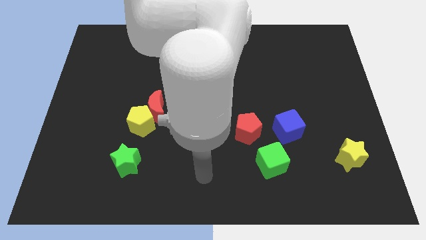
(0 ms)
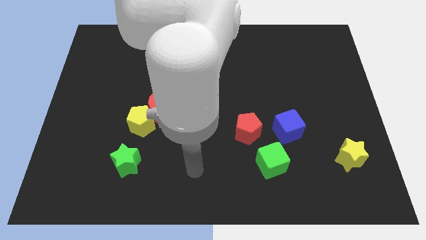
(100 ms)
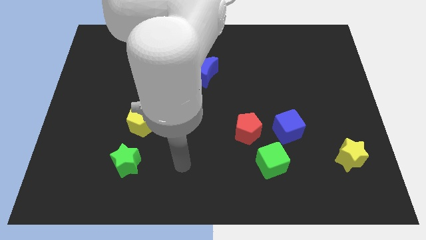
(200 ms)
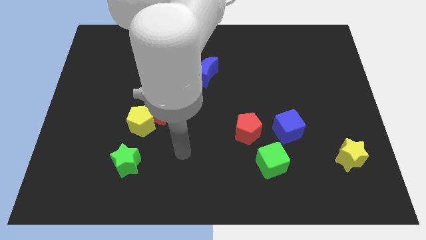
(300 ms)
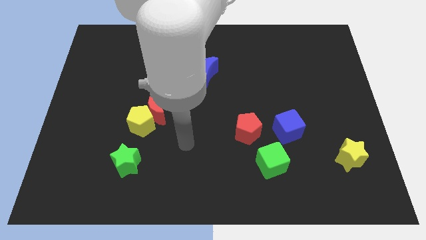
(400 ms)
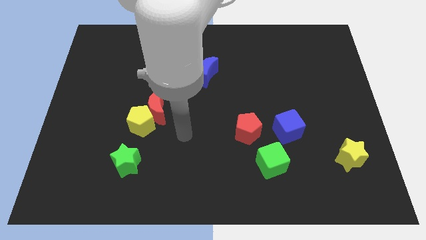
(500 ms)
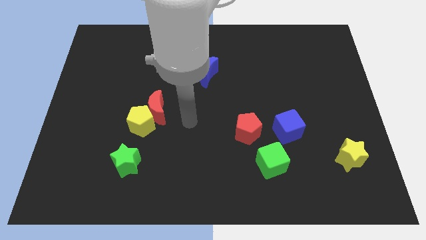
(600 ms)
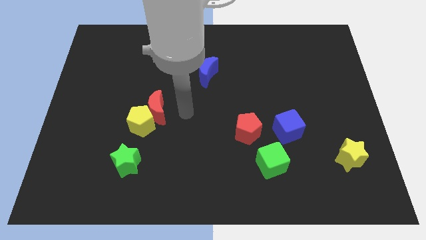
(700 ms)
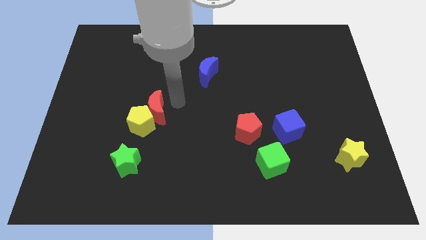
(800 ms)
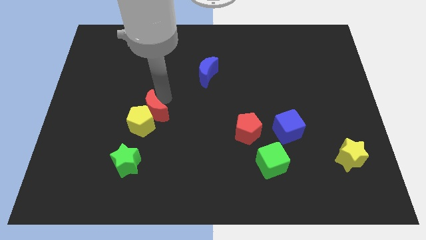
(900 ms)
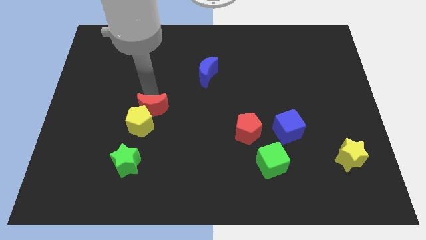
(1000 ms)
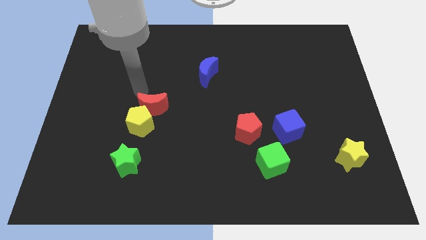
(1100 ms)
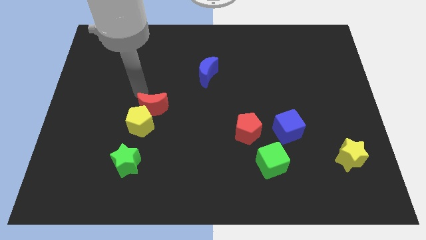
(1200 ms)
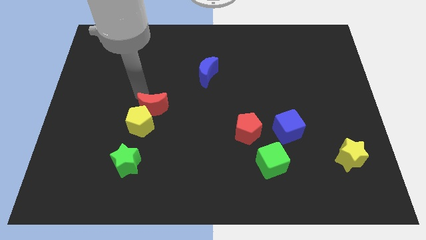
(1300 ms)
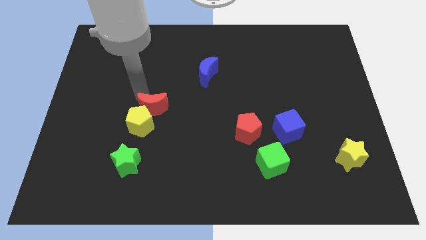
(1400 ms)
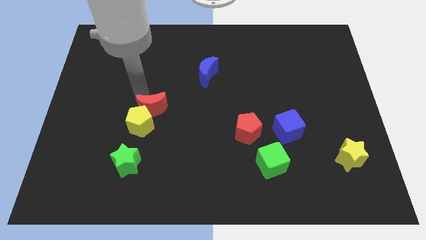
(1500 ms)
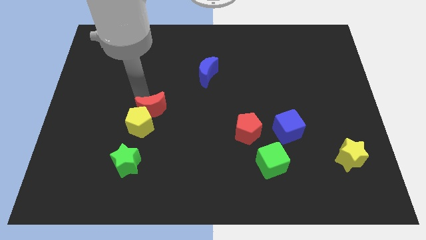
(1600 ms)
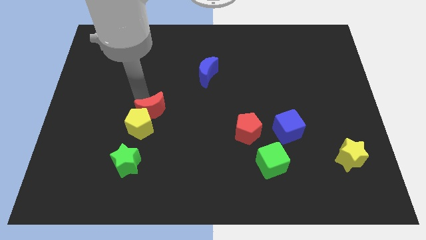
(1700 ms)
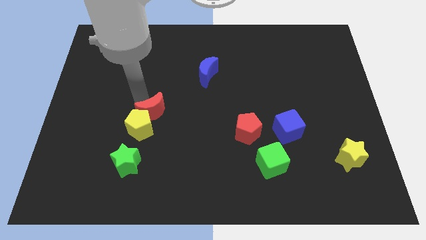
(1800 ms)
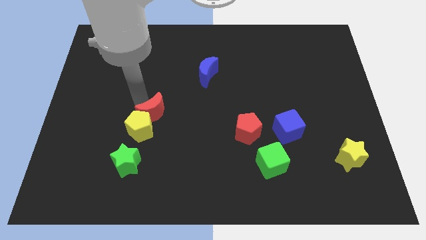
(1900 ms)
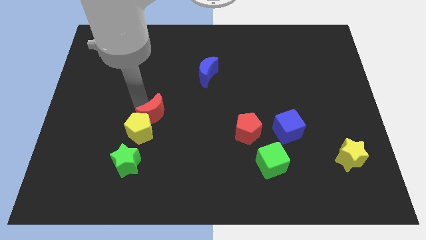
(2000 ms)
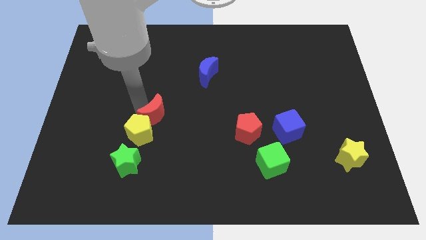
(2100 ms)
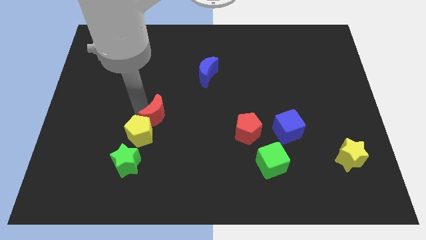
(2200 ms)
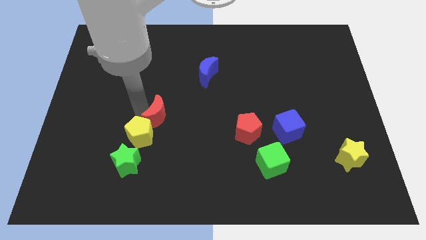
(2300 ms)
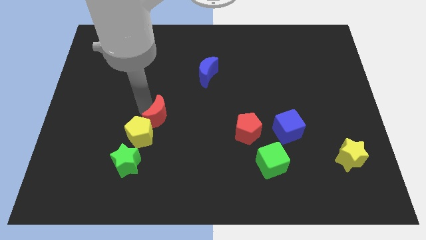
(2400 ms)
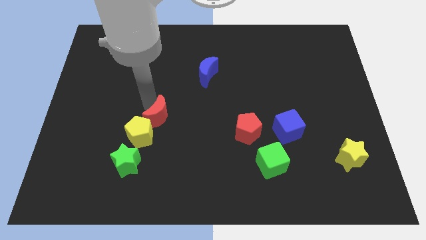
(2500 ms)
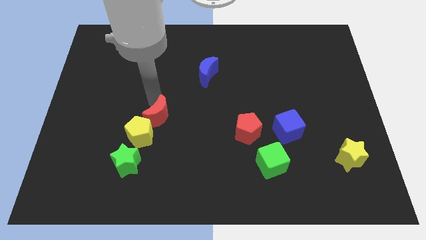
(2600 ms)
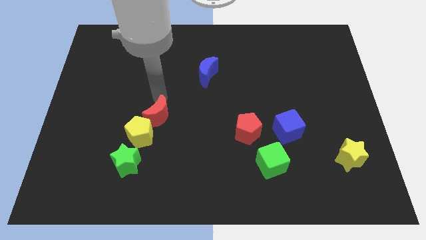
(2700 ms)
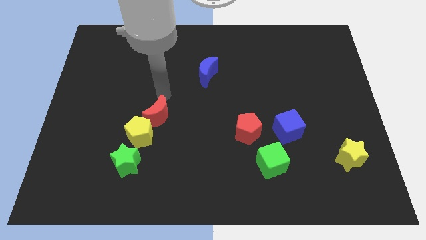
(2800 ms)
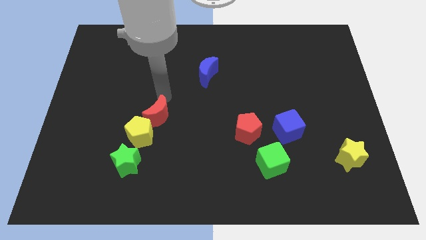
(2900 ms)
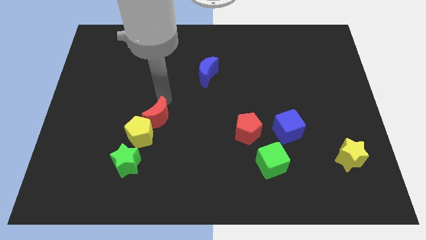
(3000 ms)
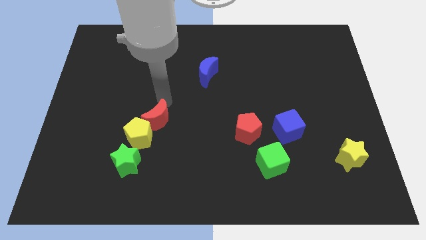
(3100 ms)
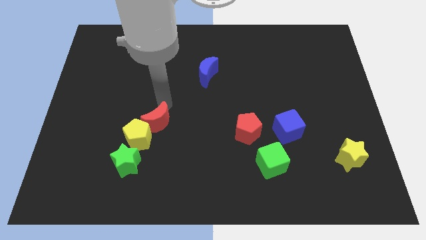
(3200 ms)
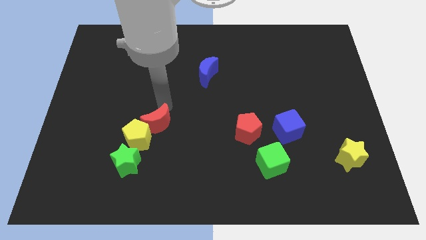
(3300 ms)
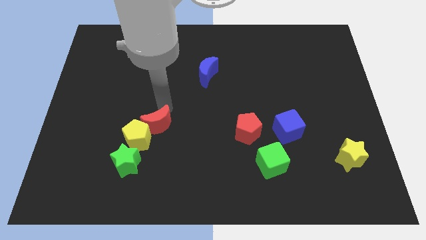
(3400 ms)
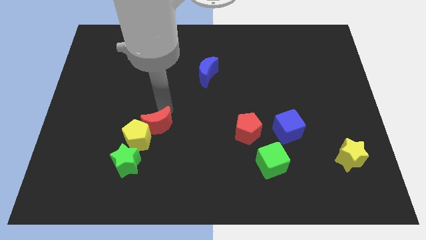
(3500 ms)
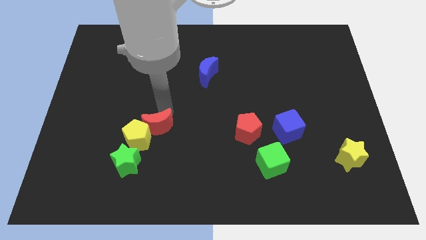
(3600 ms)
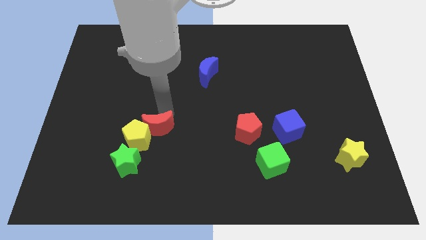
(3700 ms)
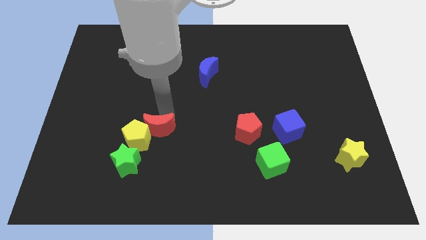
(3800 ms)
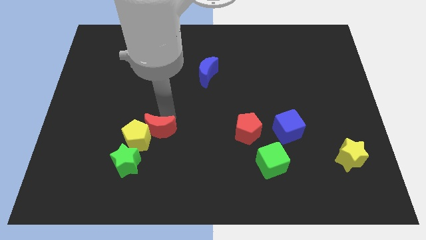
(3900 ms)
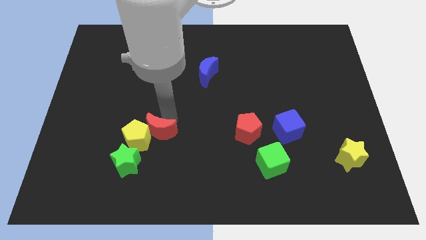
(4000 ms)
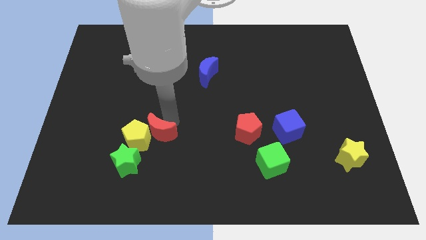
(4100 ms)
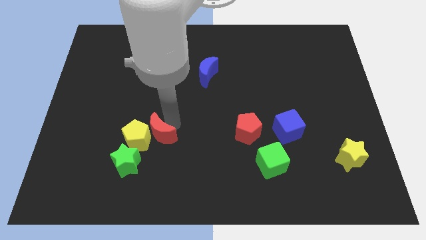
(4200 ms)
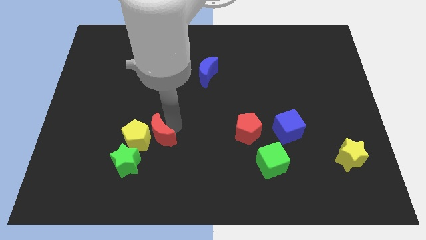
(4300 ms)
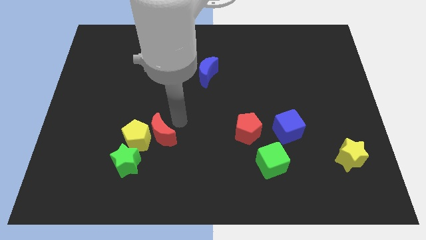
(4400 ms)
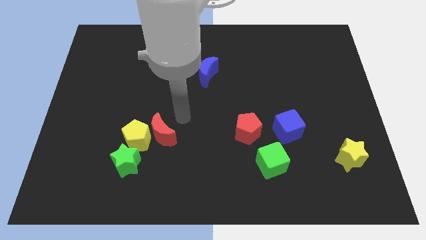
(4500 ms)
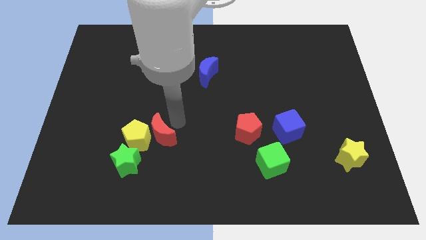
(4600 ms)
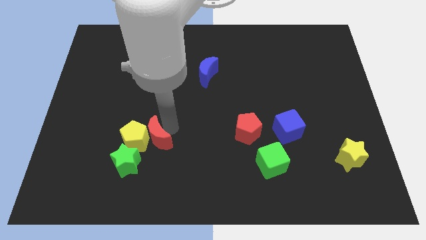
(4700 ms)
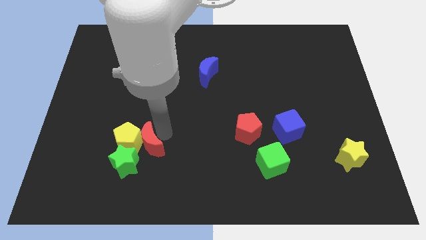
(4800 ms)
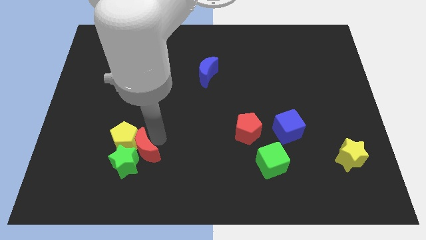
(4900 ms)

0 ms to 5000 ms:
push the red moon towards the green star

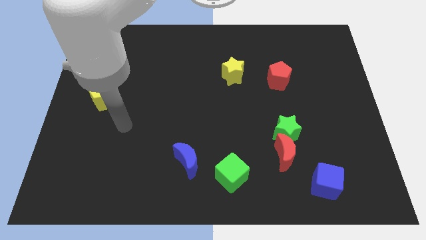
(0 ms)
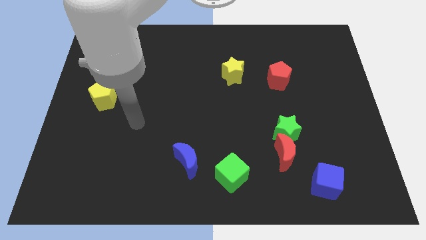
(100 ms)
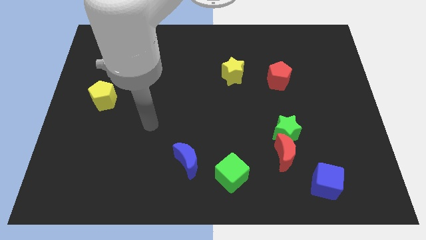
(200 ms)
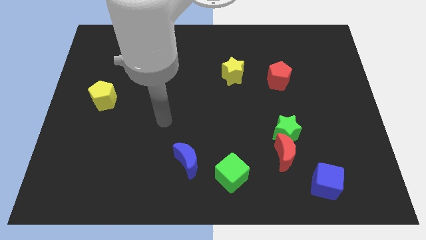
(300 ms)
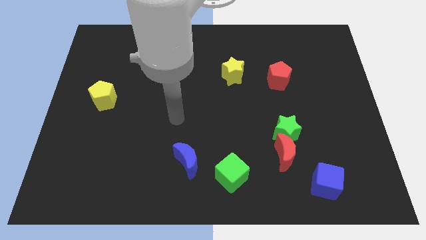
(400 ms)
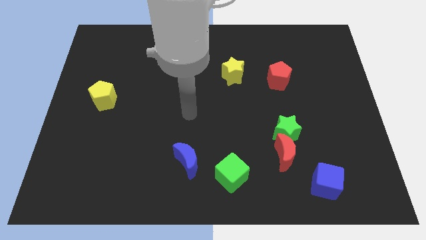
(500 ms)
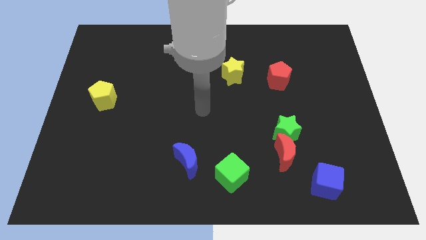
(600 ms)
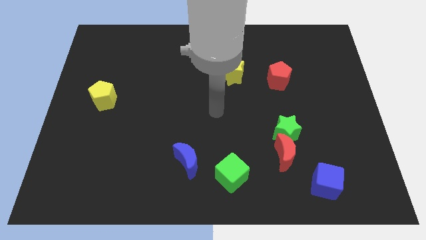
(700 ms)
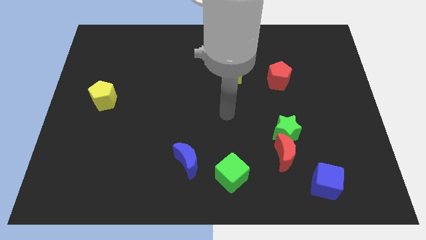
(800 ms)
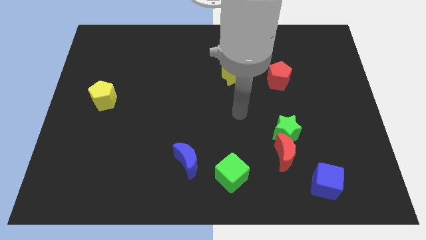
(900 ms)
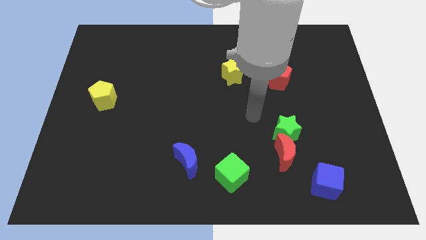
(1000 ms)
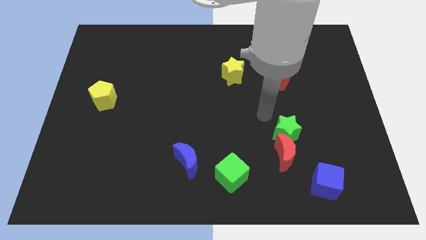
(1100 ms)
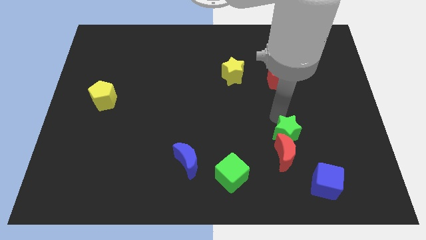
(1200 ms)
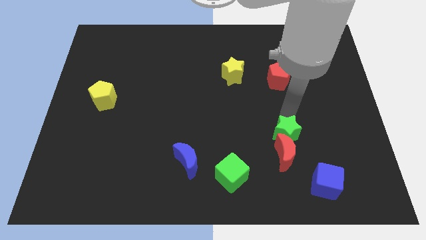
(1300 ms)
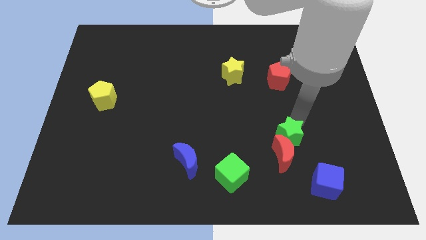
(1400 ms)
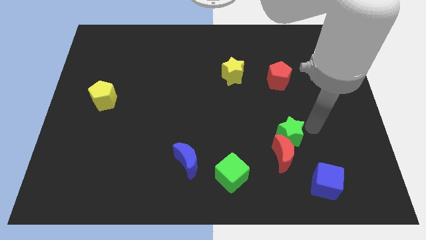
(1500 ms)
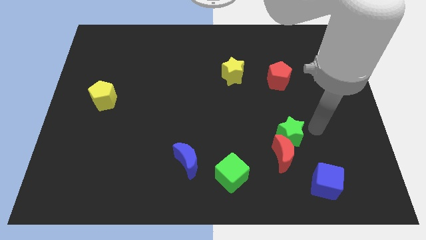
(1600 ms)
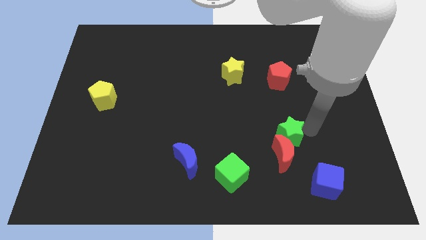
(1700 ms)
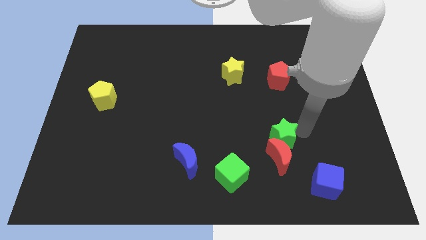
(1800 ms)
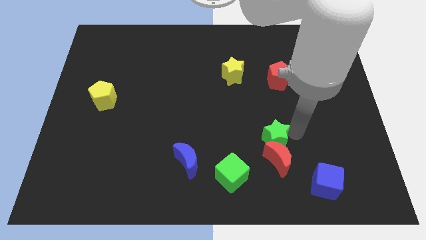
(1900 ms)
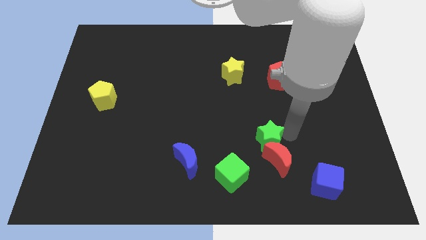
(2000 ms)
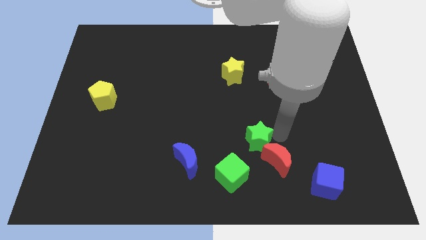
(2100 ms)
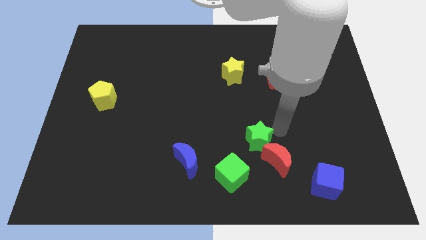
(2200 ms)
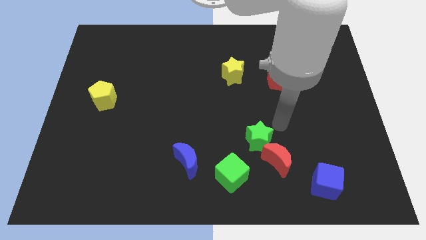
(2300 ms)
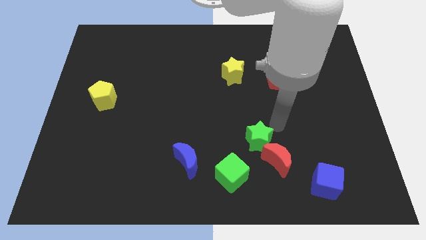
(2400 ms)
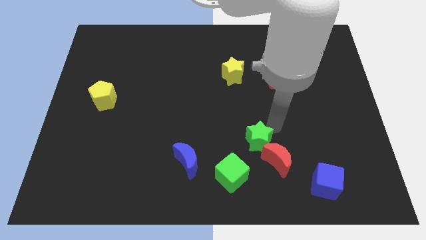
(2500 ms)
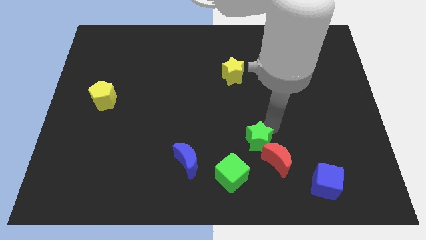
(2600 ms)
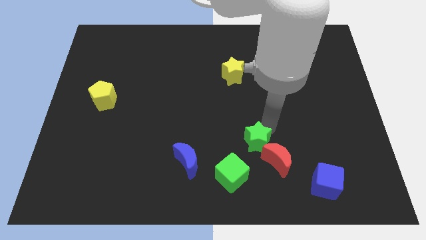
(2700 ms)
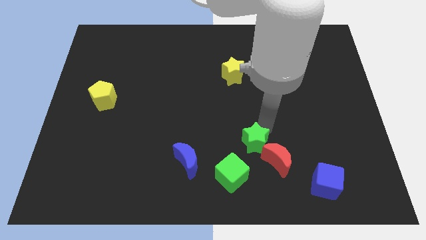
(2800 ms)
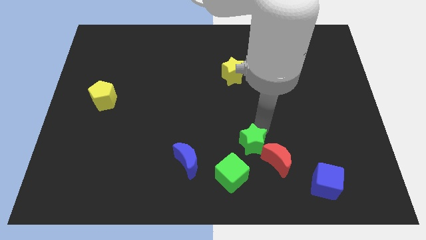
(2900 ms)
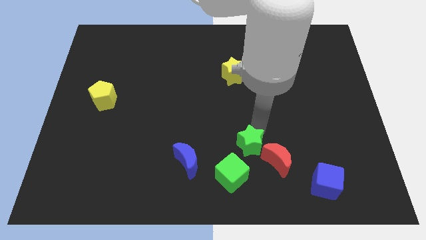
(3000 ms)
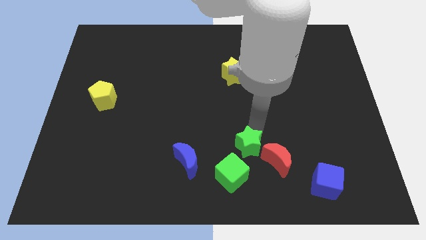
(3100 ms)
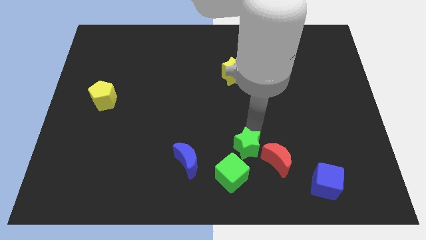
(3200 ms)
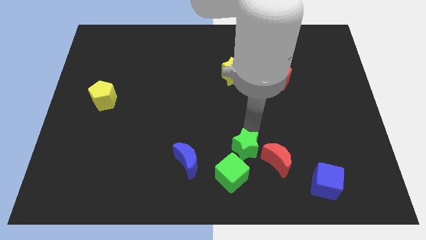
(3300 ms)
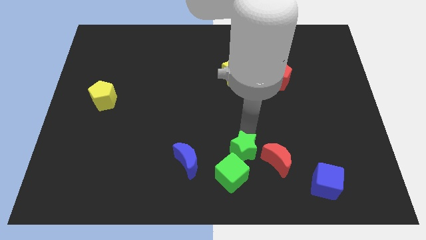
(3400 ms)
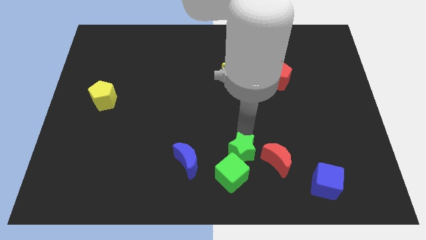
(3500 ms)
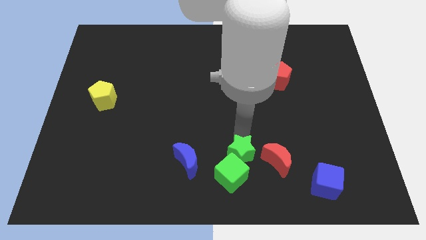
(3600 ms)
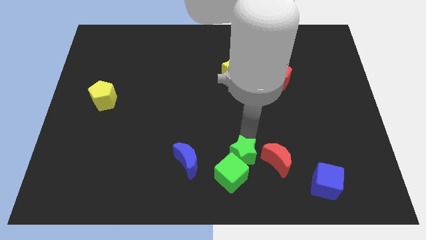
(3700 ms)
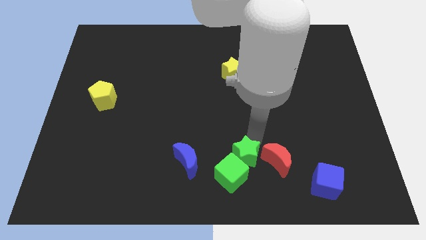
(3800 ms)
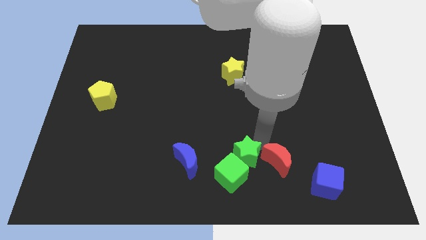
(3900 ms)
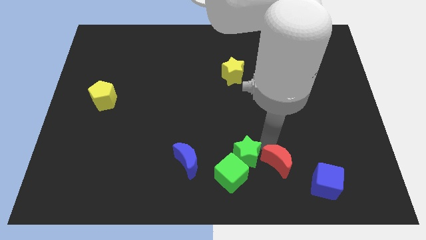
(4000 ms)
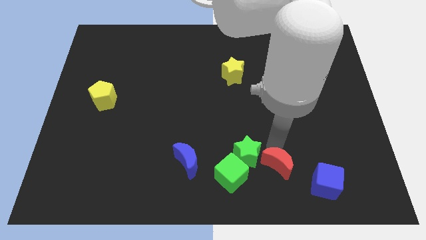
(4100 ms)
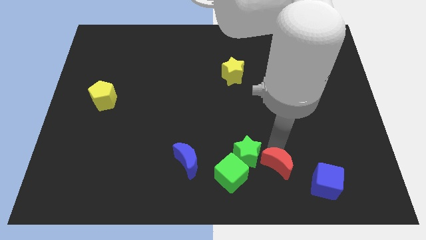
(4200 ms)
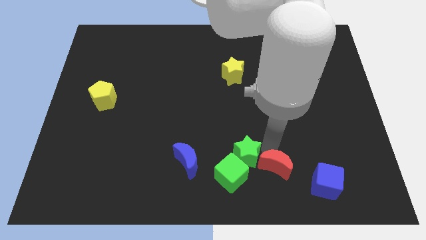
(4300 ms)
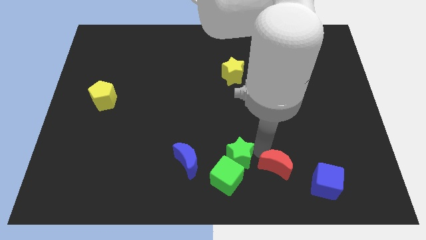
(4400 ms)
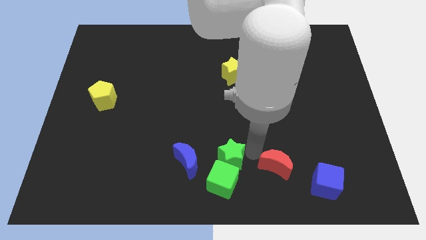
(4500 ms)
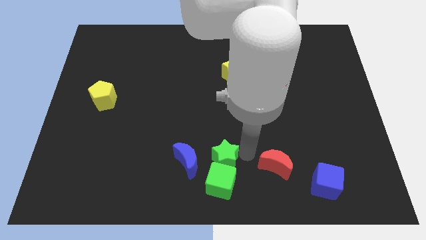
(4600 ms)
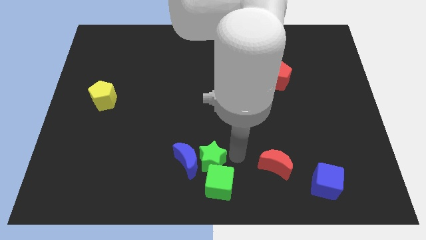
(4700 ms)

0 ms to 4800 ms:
move the green star next to the blue moon
